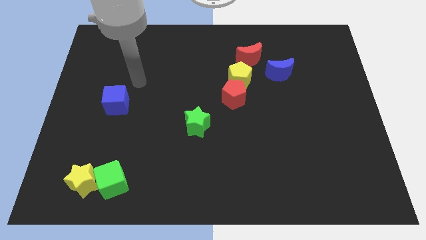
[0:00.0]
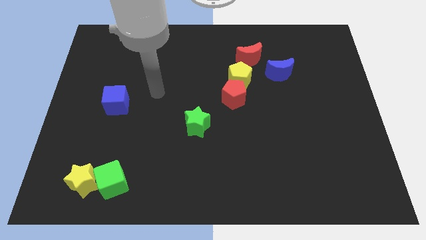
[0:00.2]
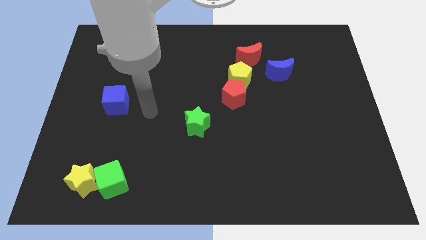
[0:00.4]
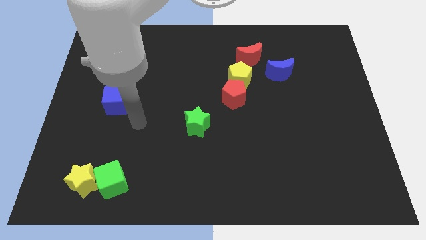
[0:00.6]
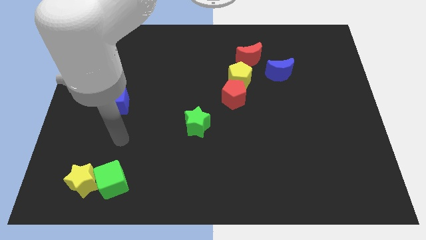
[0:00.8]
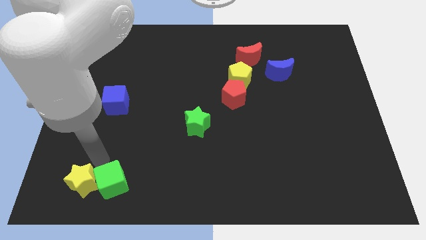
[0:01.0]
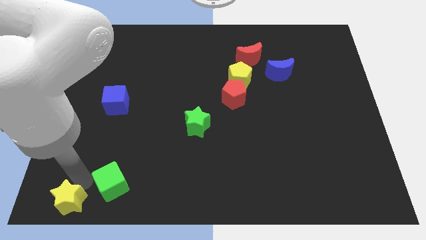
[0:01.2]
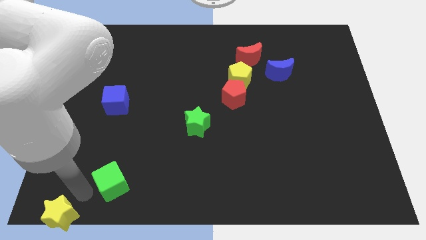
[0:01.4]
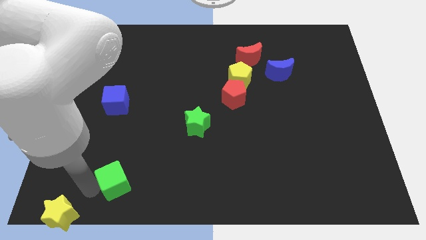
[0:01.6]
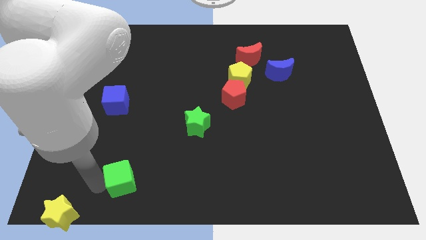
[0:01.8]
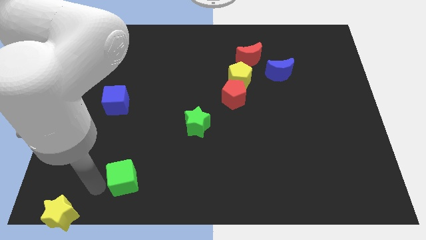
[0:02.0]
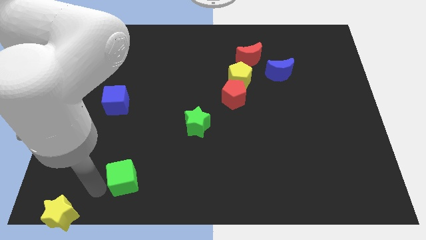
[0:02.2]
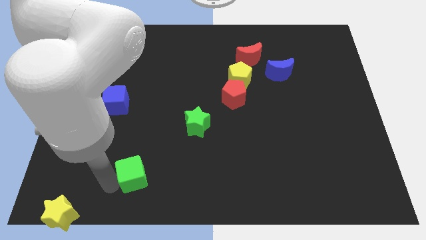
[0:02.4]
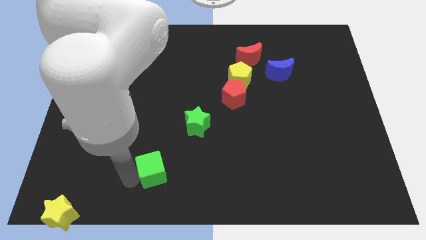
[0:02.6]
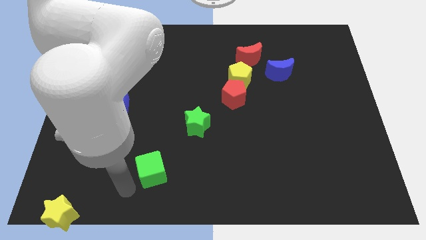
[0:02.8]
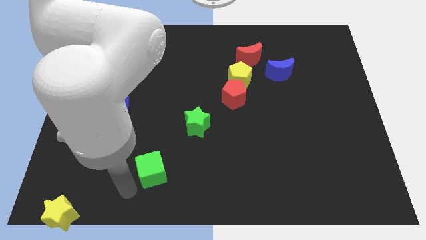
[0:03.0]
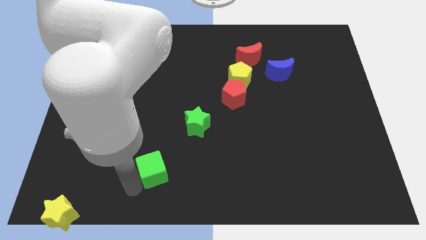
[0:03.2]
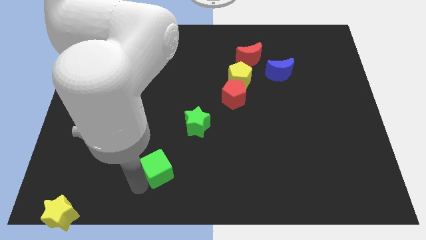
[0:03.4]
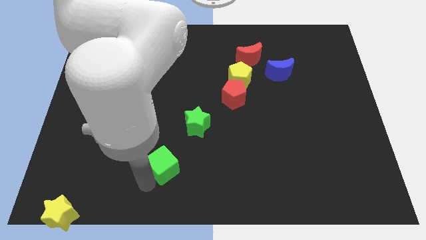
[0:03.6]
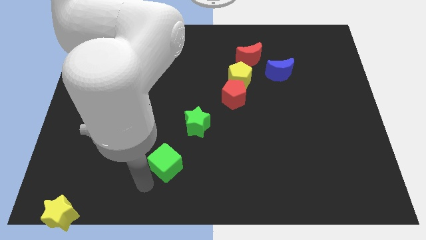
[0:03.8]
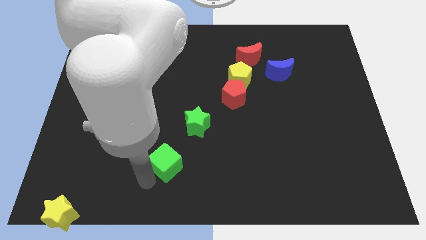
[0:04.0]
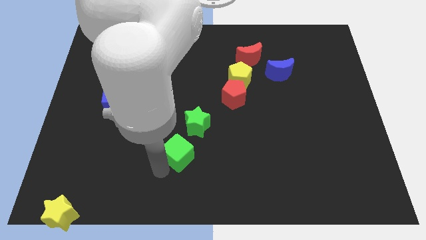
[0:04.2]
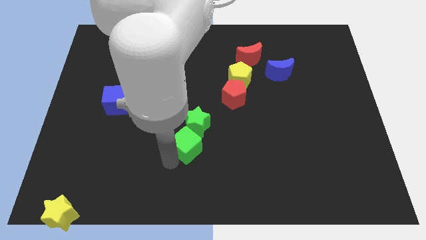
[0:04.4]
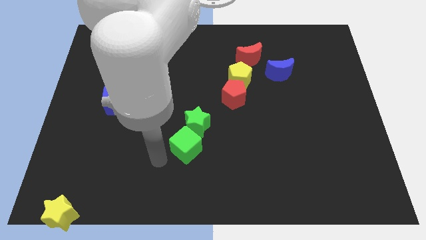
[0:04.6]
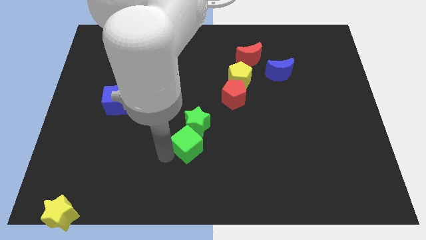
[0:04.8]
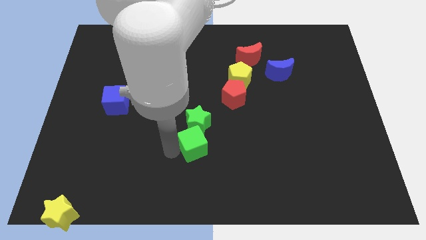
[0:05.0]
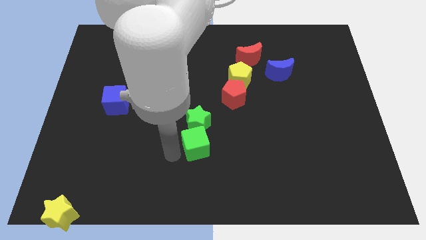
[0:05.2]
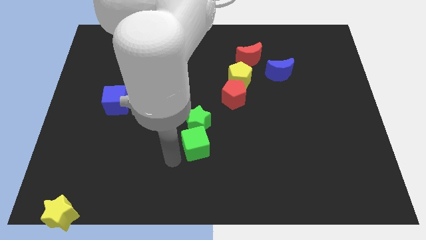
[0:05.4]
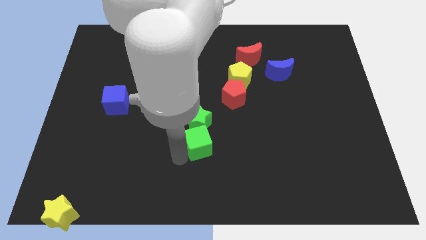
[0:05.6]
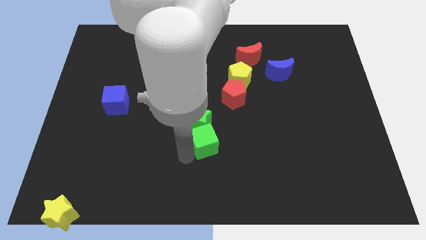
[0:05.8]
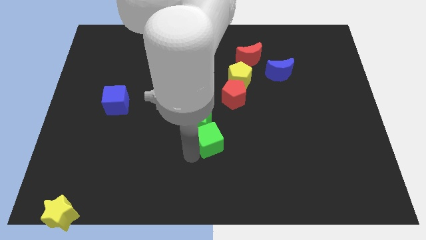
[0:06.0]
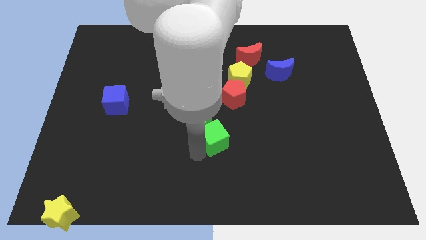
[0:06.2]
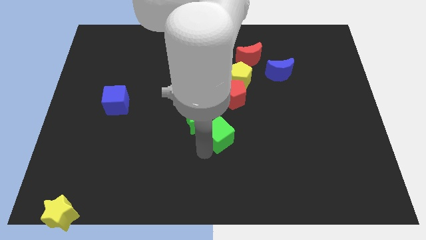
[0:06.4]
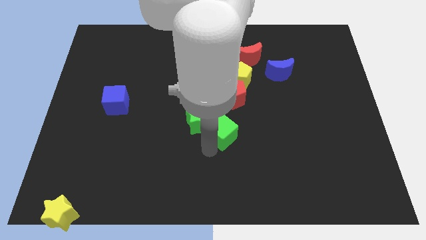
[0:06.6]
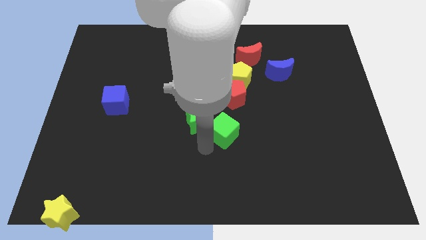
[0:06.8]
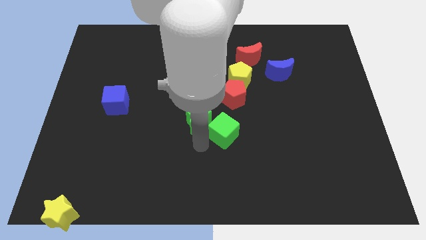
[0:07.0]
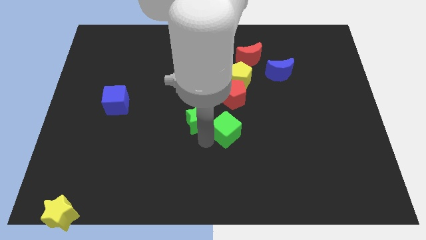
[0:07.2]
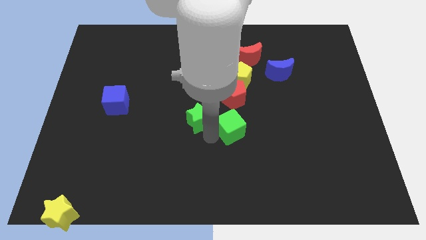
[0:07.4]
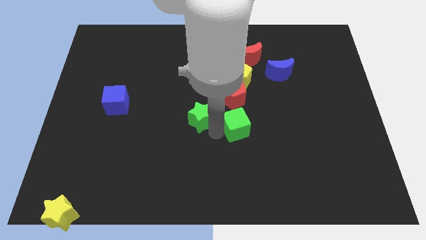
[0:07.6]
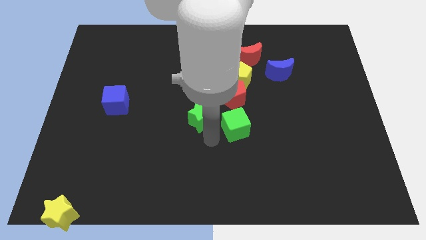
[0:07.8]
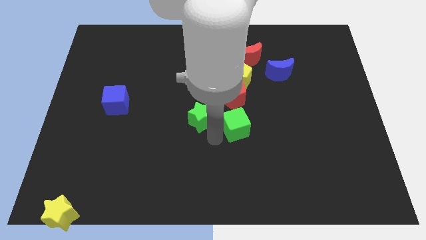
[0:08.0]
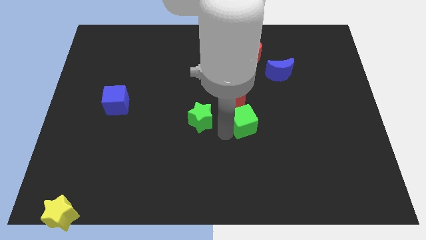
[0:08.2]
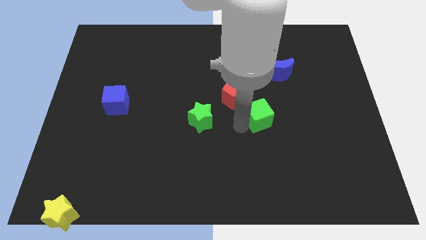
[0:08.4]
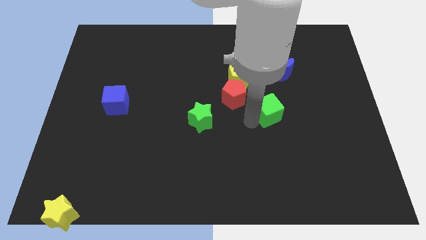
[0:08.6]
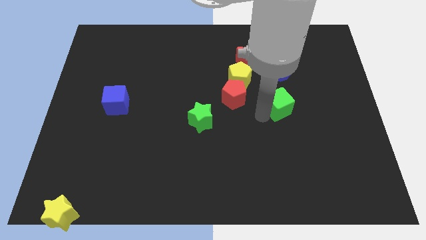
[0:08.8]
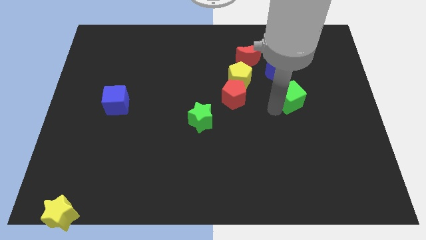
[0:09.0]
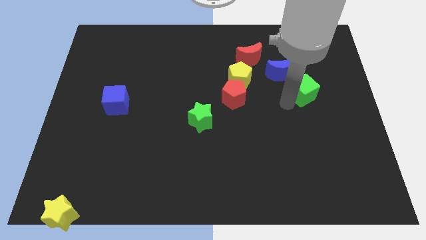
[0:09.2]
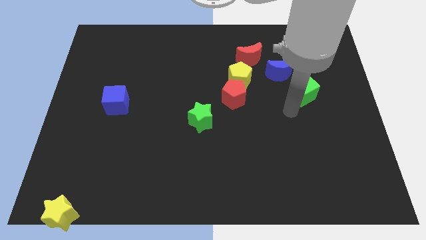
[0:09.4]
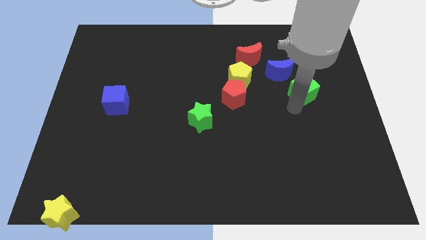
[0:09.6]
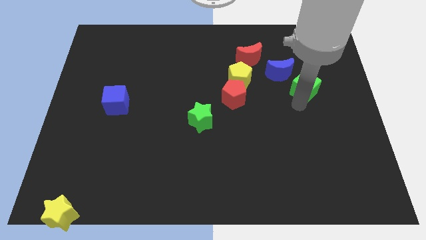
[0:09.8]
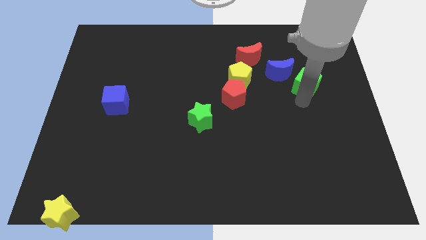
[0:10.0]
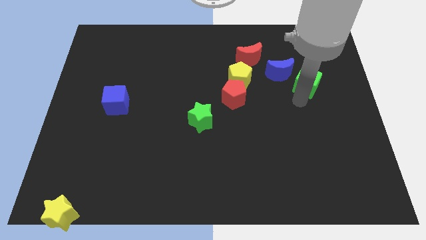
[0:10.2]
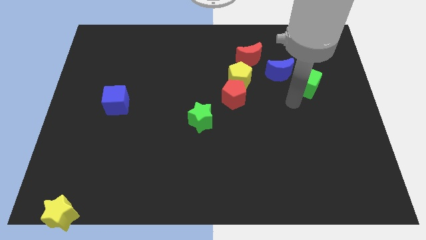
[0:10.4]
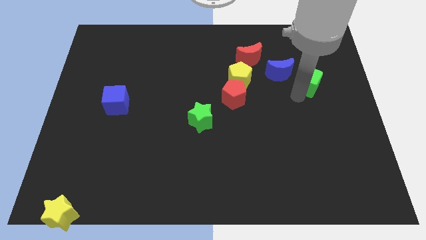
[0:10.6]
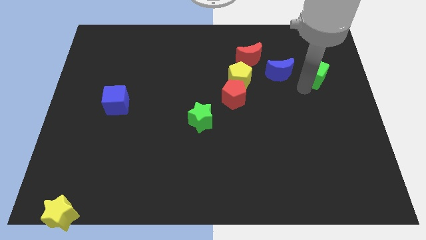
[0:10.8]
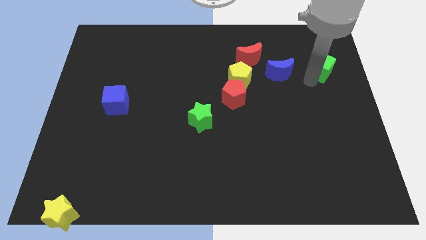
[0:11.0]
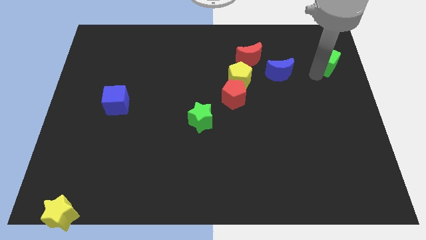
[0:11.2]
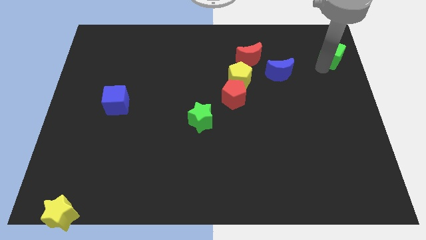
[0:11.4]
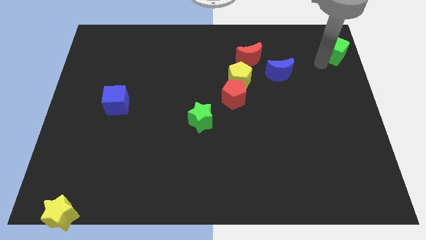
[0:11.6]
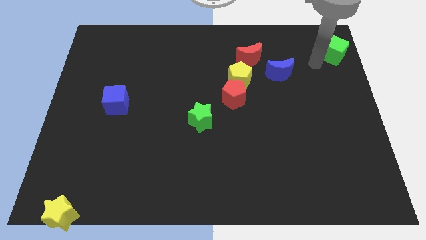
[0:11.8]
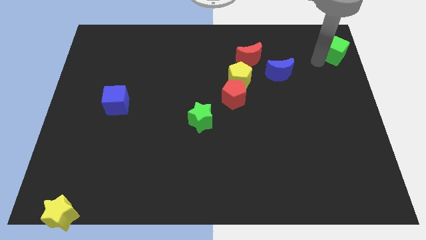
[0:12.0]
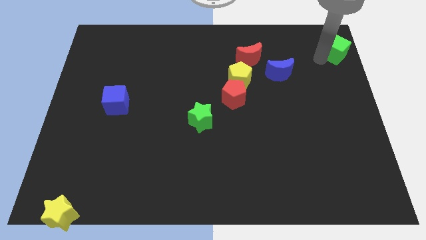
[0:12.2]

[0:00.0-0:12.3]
slide the green cube to the top right of the board
